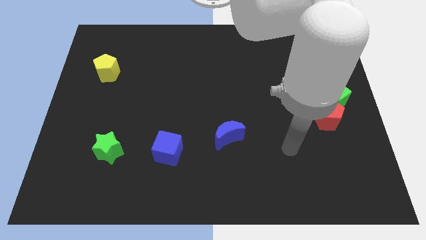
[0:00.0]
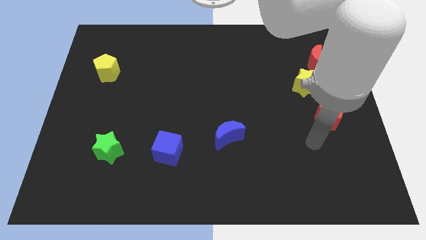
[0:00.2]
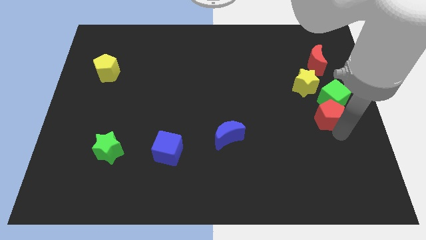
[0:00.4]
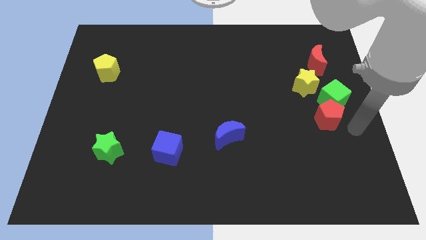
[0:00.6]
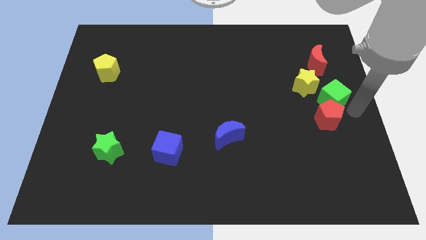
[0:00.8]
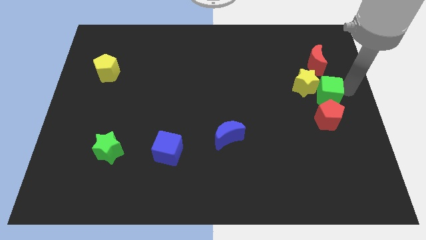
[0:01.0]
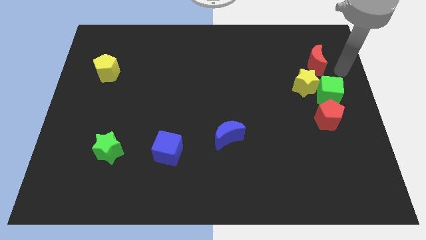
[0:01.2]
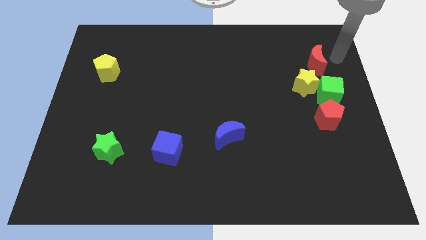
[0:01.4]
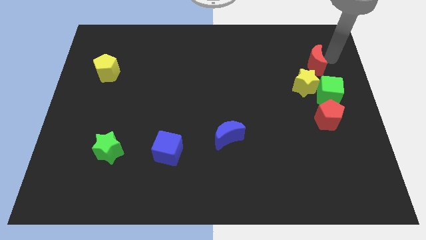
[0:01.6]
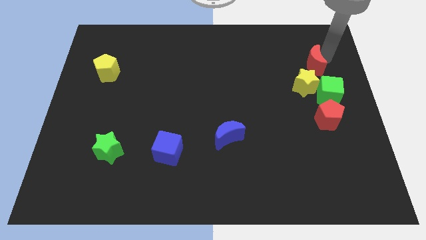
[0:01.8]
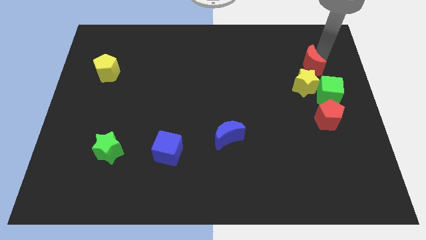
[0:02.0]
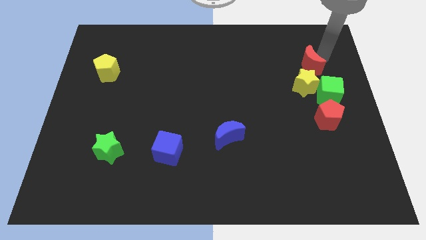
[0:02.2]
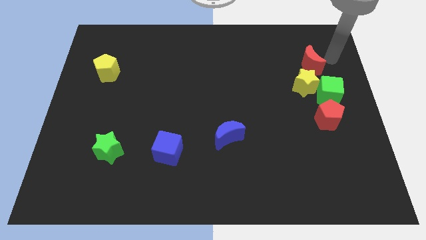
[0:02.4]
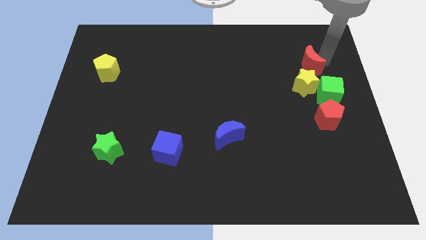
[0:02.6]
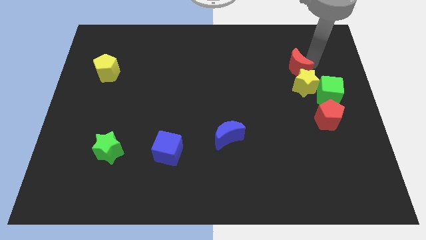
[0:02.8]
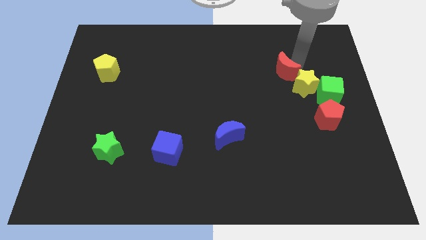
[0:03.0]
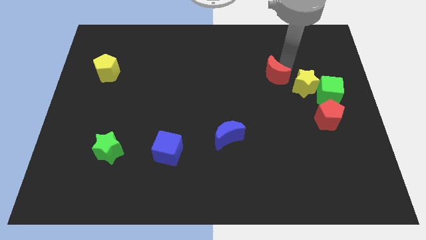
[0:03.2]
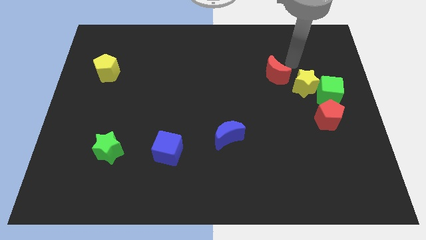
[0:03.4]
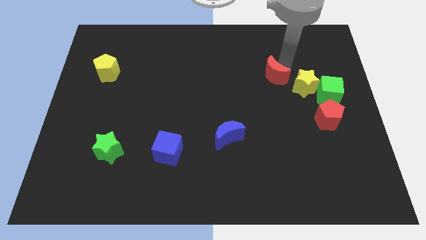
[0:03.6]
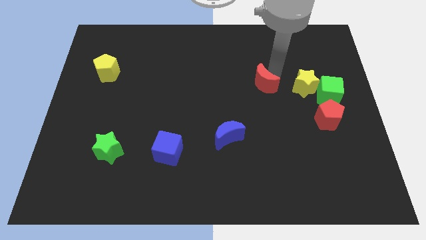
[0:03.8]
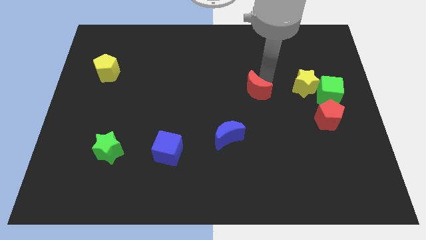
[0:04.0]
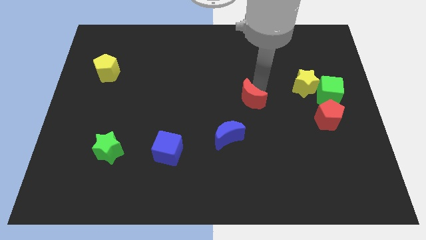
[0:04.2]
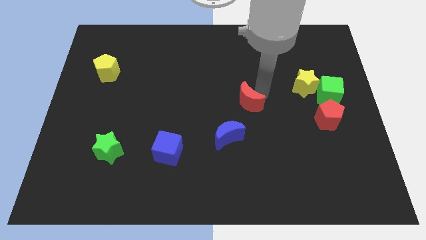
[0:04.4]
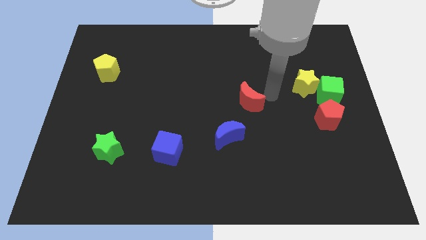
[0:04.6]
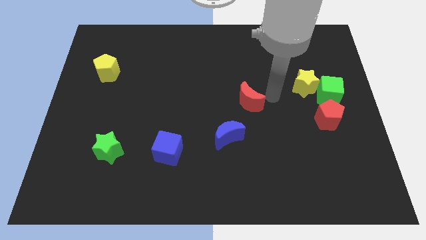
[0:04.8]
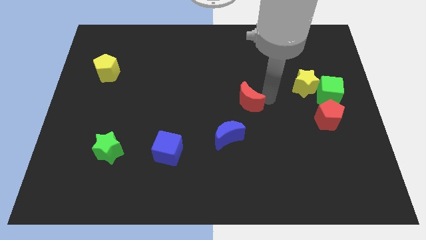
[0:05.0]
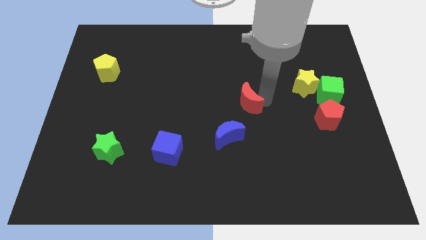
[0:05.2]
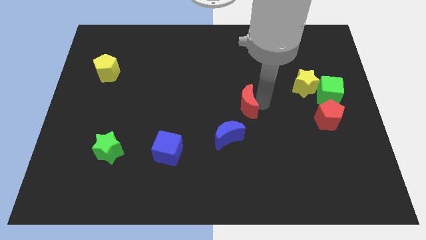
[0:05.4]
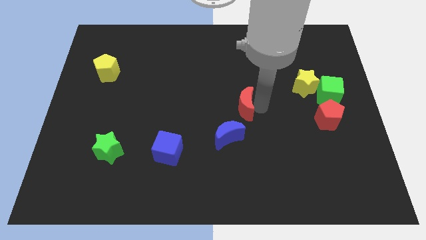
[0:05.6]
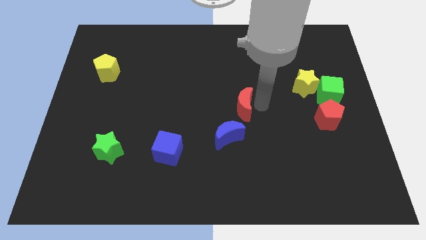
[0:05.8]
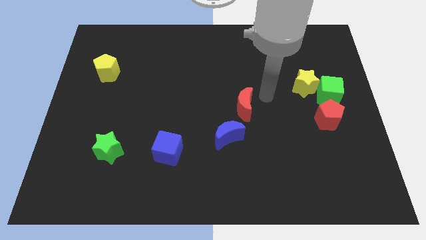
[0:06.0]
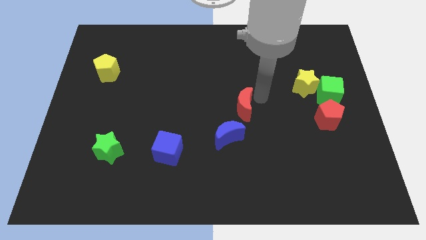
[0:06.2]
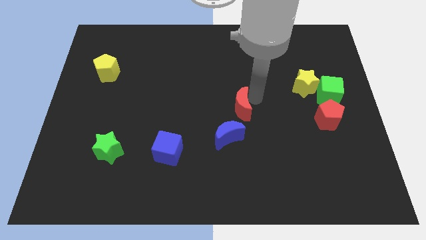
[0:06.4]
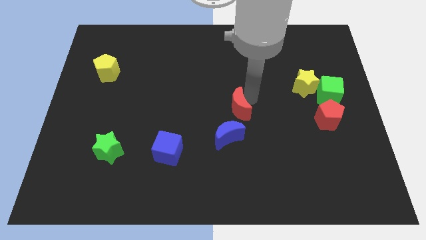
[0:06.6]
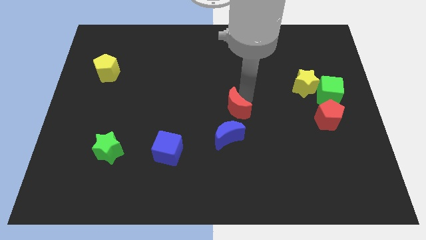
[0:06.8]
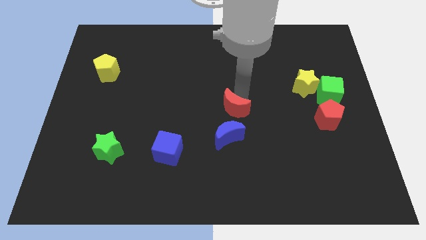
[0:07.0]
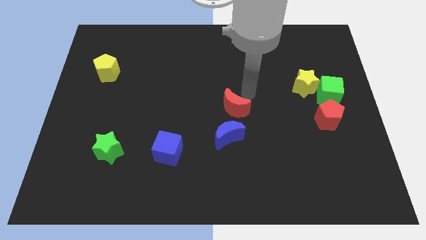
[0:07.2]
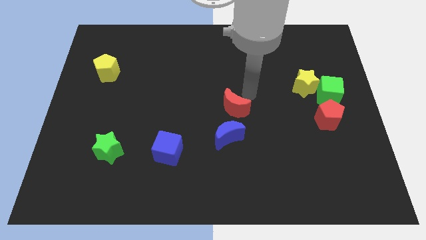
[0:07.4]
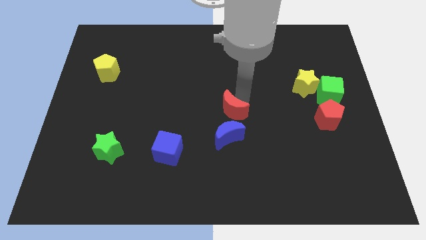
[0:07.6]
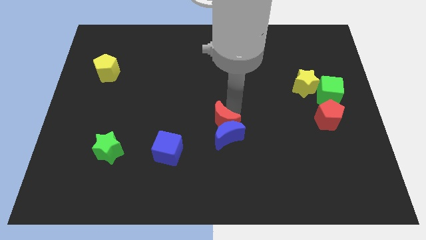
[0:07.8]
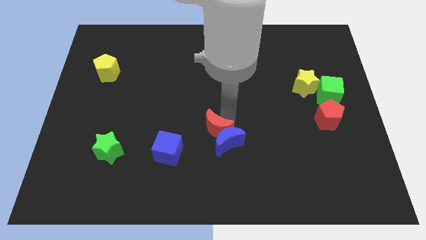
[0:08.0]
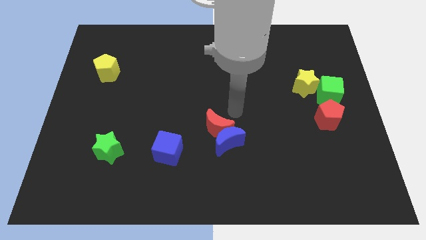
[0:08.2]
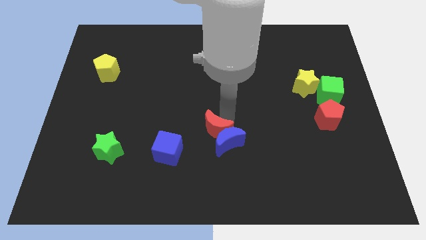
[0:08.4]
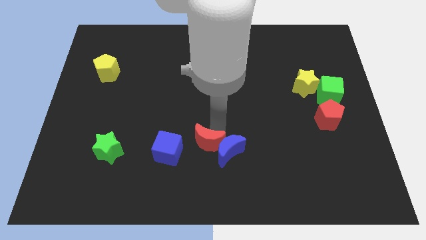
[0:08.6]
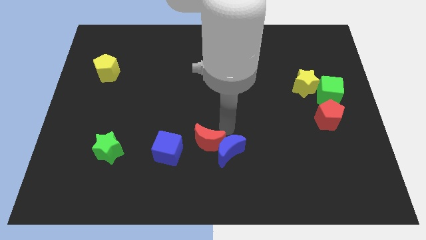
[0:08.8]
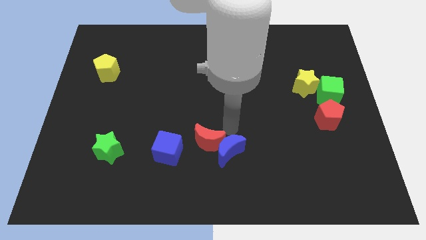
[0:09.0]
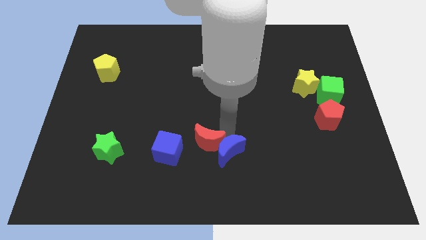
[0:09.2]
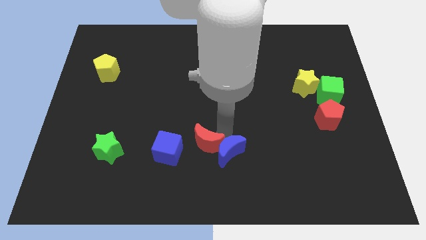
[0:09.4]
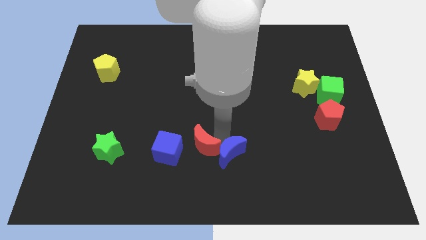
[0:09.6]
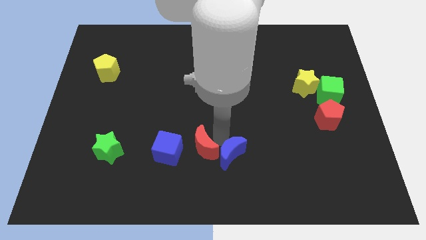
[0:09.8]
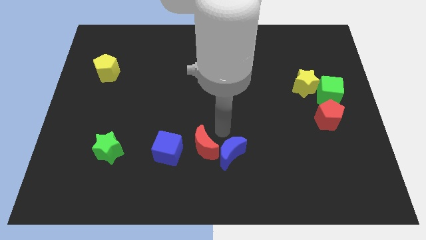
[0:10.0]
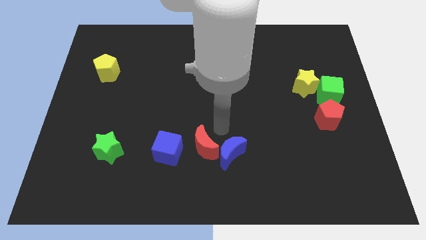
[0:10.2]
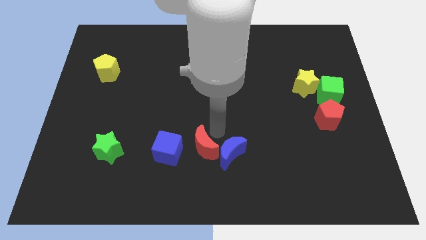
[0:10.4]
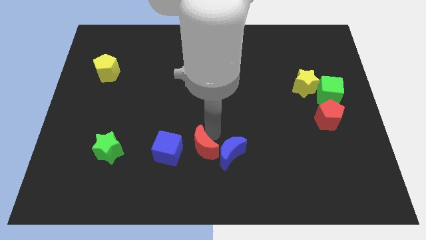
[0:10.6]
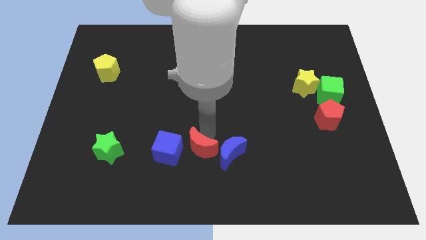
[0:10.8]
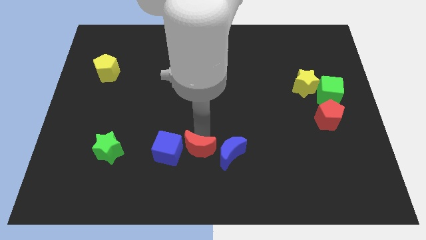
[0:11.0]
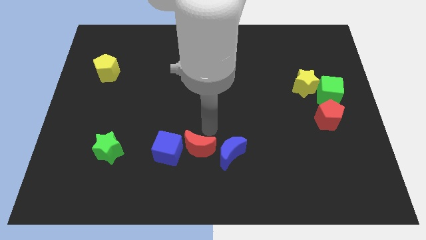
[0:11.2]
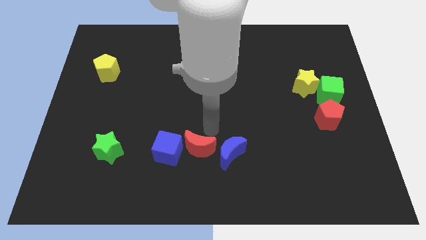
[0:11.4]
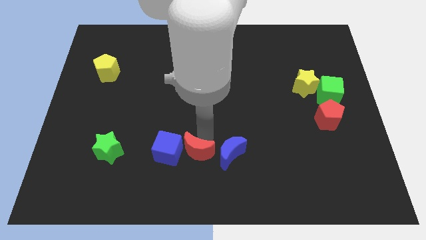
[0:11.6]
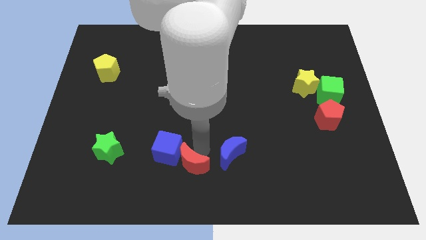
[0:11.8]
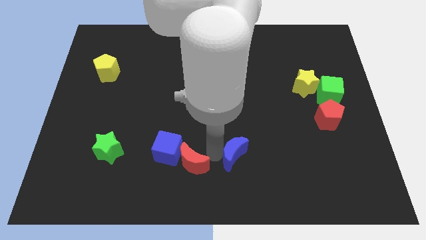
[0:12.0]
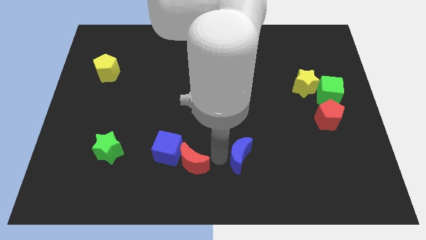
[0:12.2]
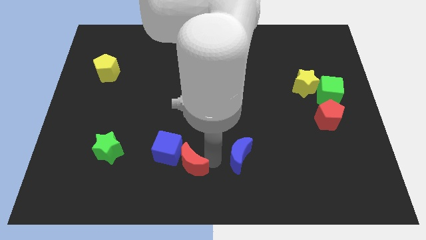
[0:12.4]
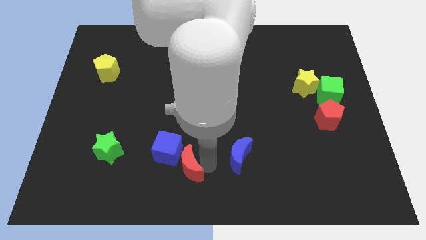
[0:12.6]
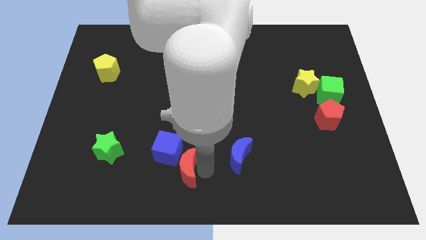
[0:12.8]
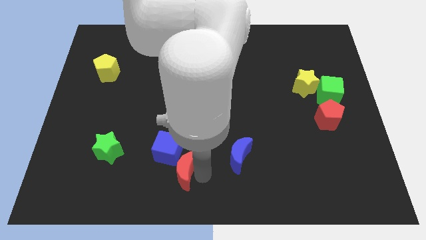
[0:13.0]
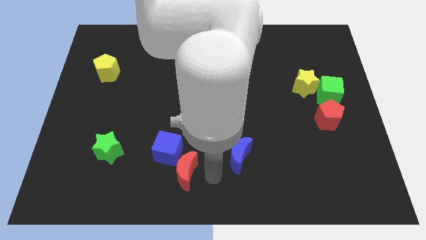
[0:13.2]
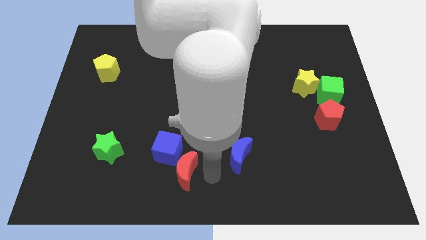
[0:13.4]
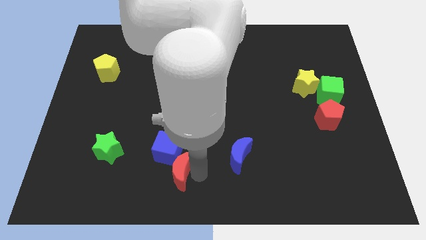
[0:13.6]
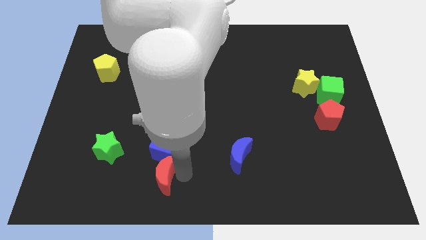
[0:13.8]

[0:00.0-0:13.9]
push the red moon to the bottom left side of the blue cube
